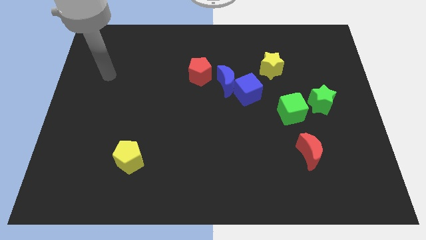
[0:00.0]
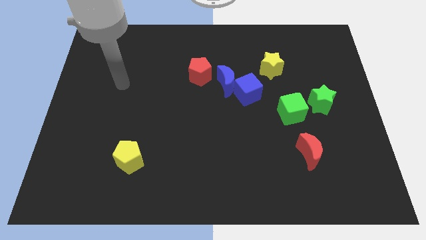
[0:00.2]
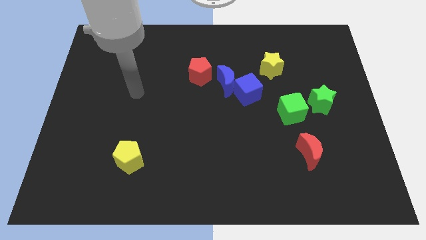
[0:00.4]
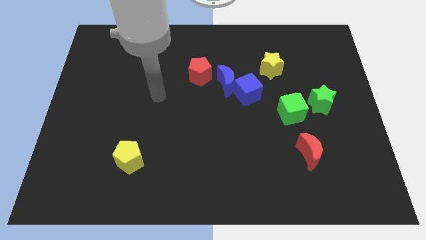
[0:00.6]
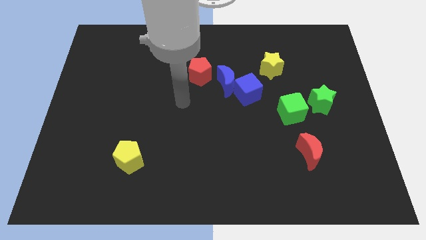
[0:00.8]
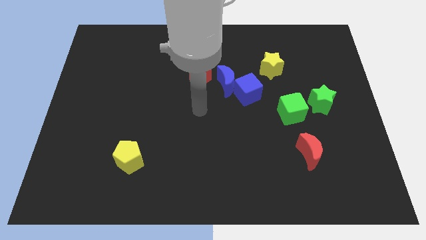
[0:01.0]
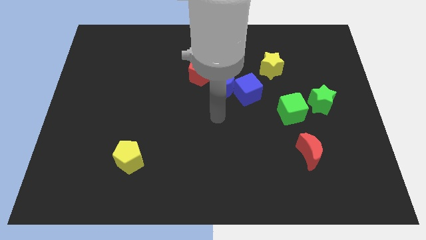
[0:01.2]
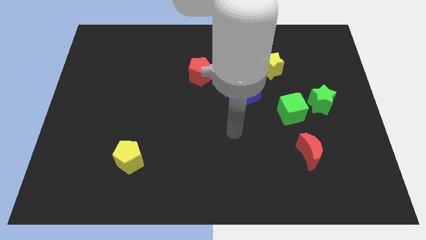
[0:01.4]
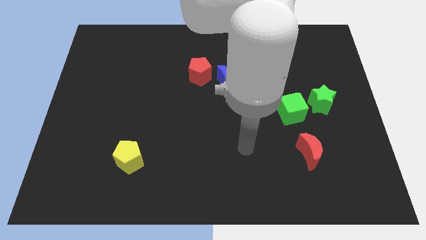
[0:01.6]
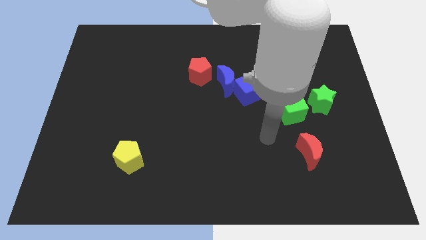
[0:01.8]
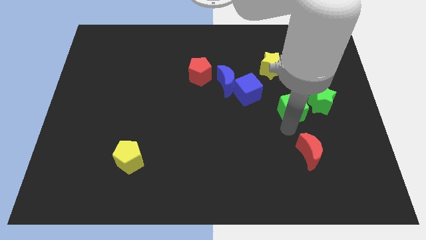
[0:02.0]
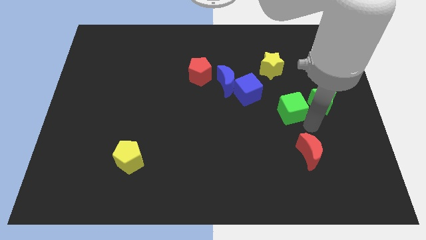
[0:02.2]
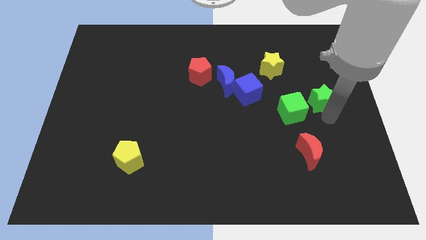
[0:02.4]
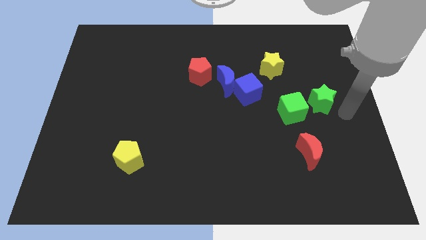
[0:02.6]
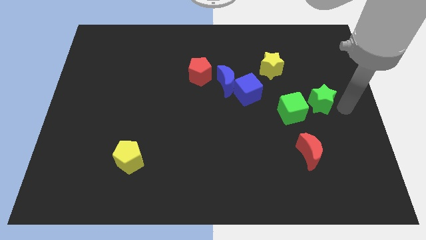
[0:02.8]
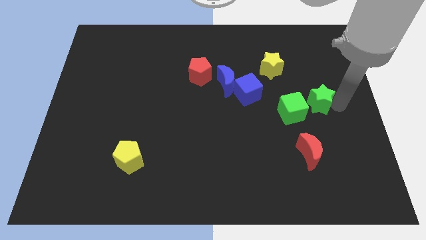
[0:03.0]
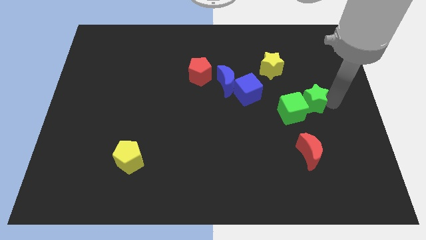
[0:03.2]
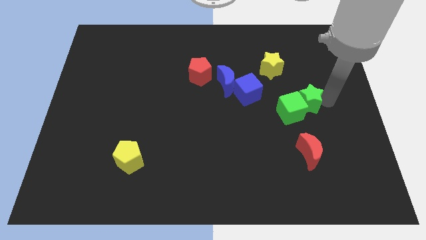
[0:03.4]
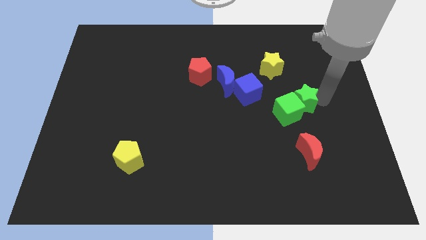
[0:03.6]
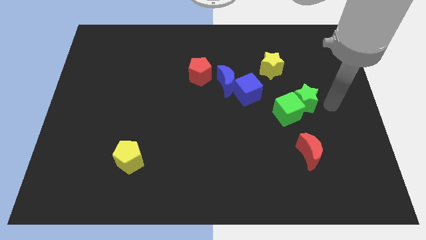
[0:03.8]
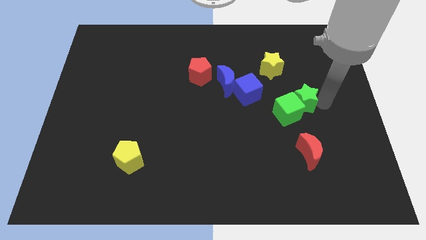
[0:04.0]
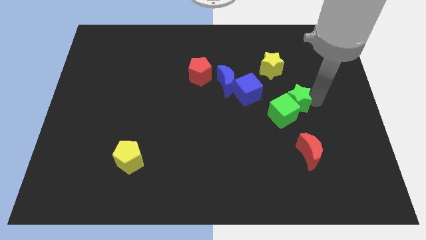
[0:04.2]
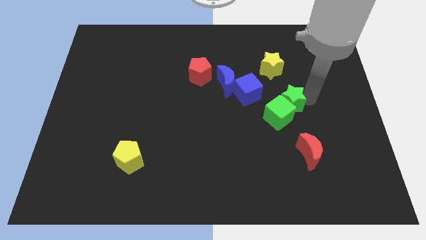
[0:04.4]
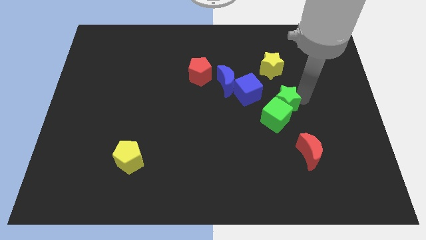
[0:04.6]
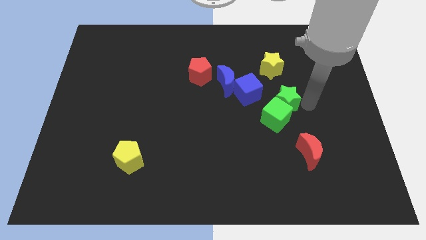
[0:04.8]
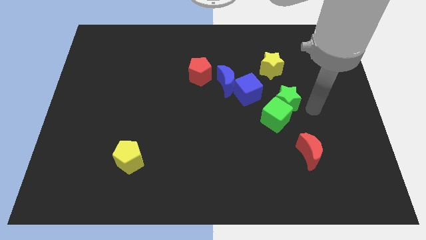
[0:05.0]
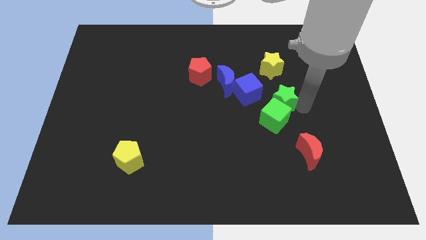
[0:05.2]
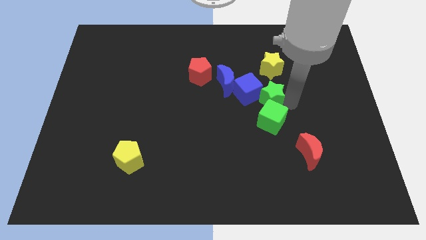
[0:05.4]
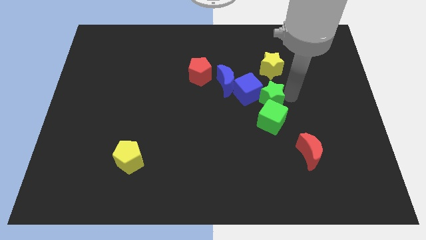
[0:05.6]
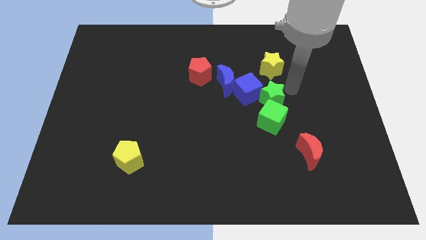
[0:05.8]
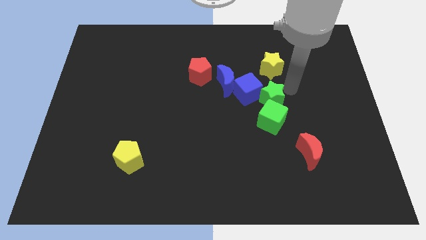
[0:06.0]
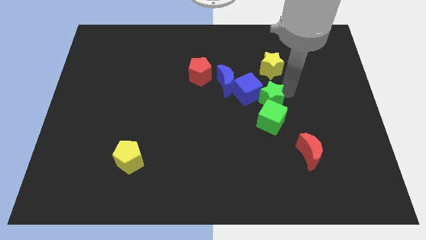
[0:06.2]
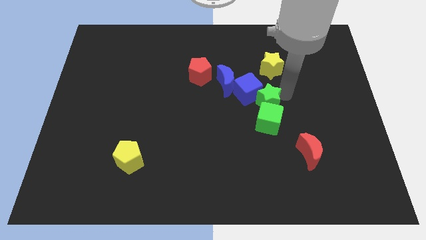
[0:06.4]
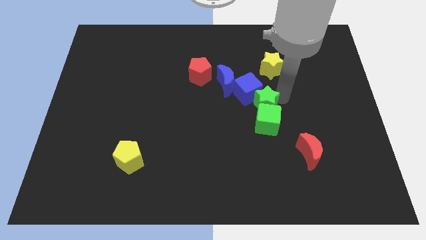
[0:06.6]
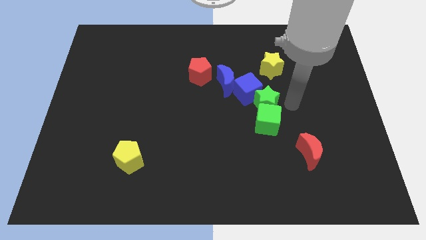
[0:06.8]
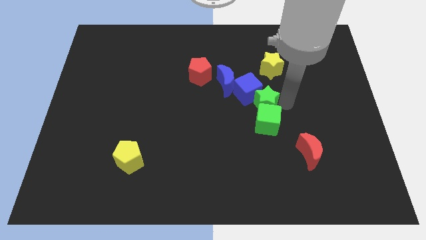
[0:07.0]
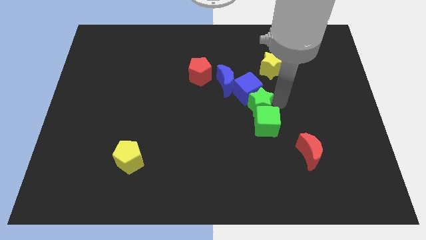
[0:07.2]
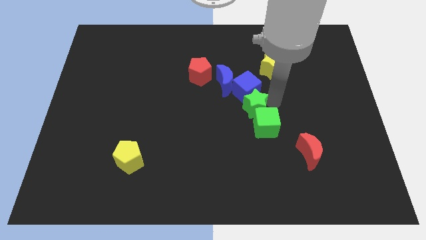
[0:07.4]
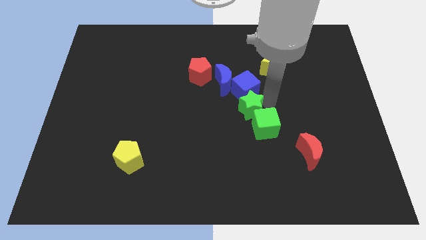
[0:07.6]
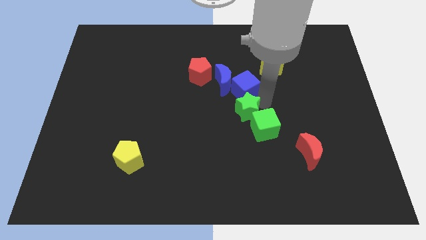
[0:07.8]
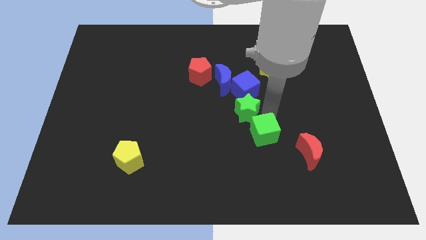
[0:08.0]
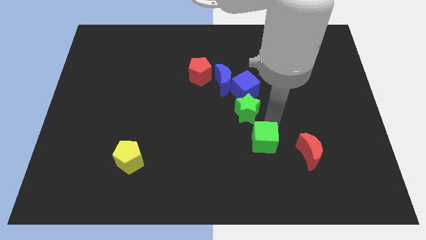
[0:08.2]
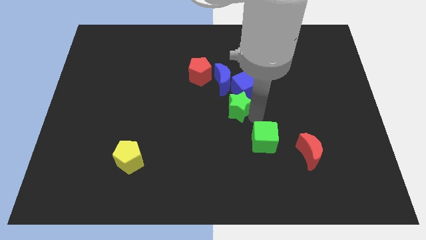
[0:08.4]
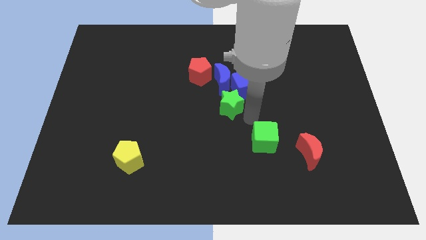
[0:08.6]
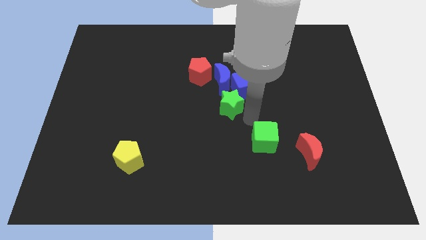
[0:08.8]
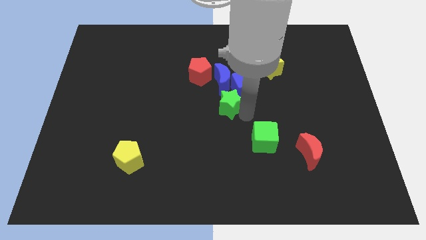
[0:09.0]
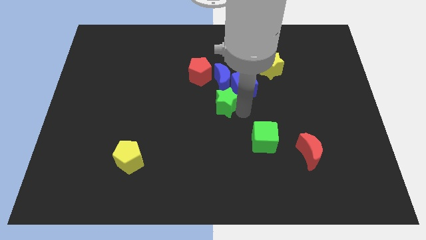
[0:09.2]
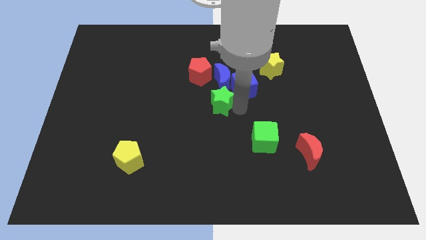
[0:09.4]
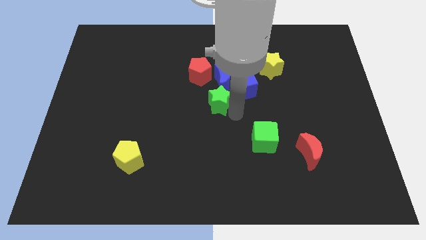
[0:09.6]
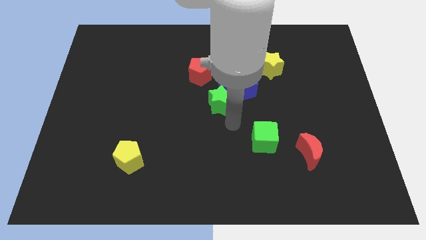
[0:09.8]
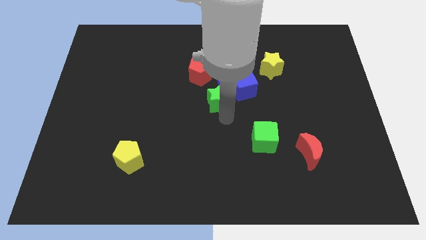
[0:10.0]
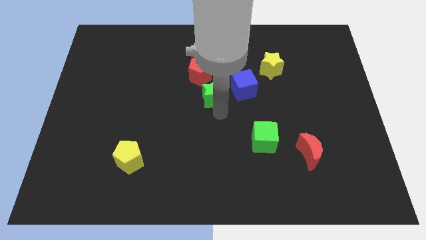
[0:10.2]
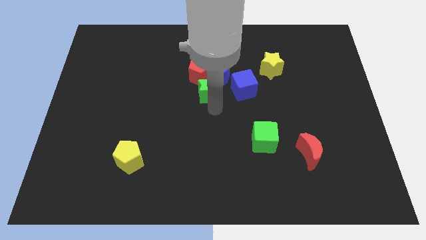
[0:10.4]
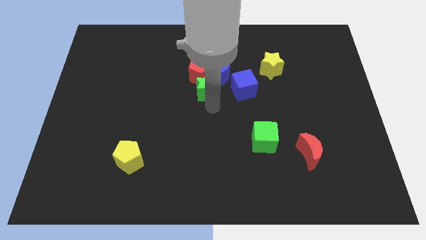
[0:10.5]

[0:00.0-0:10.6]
push the green star to the red pentagon
